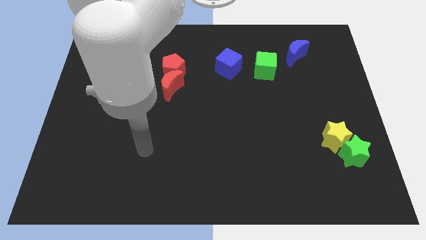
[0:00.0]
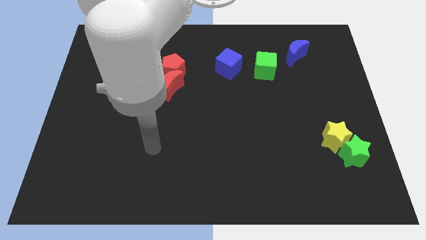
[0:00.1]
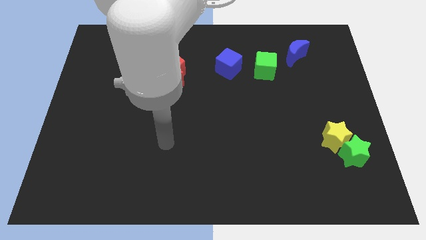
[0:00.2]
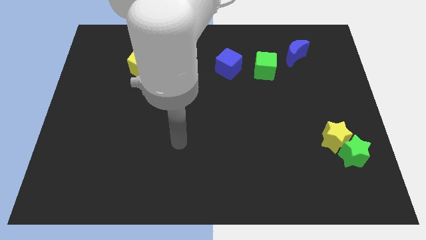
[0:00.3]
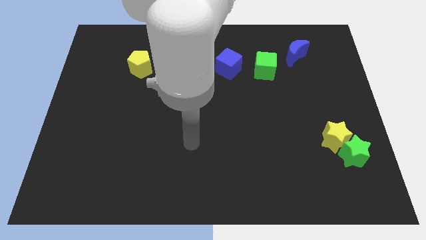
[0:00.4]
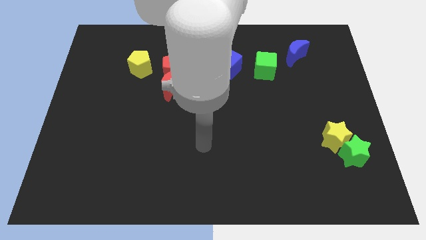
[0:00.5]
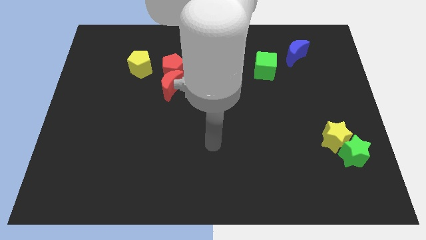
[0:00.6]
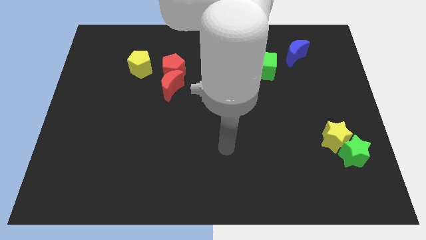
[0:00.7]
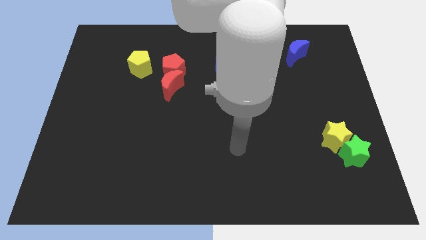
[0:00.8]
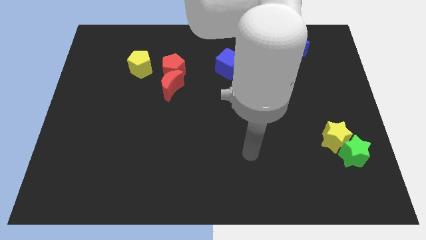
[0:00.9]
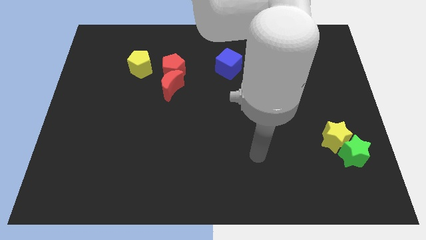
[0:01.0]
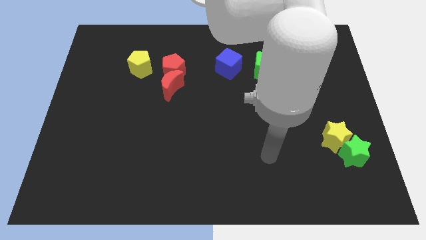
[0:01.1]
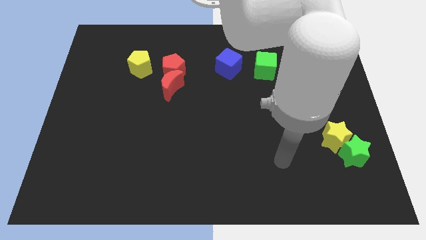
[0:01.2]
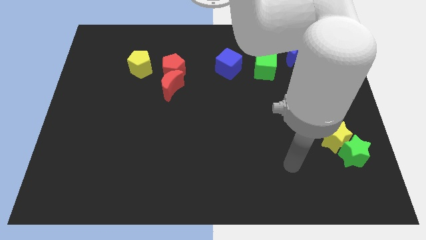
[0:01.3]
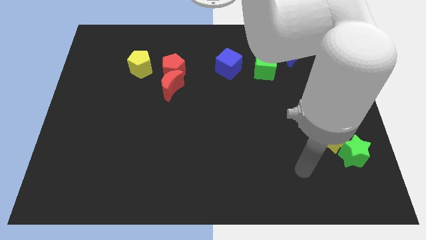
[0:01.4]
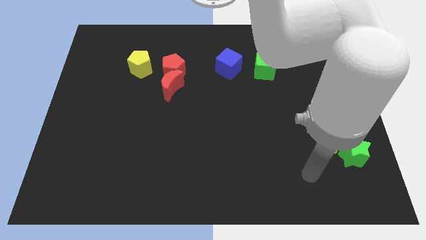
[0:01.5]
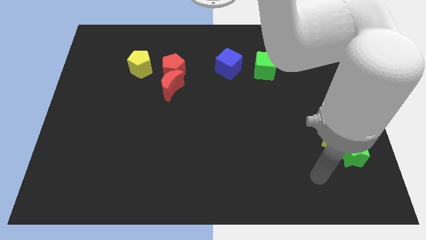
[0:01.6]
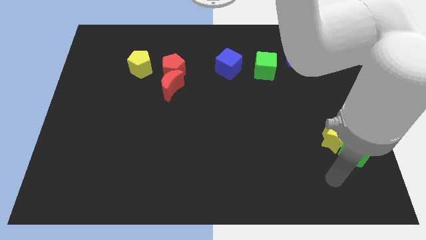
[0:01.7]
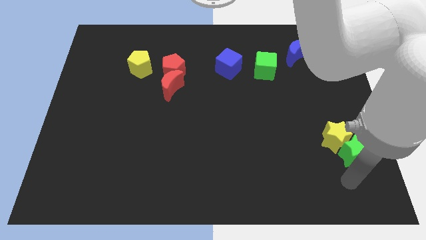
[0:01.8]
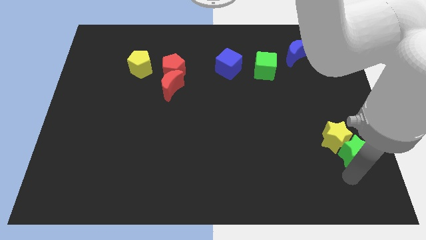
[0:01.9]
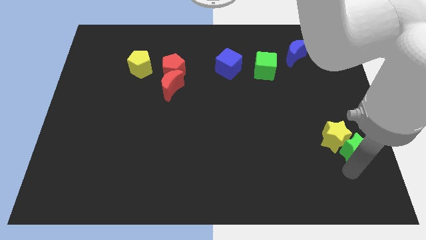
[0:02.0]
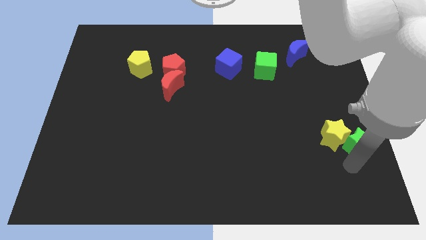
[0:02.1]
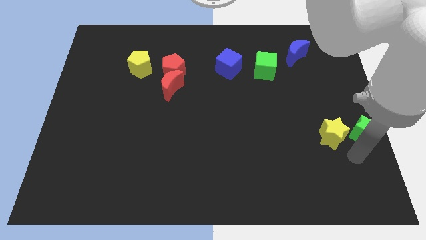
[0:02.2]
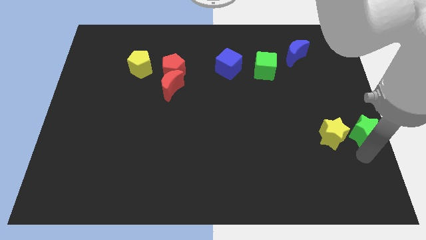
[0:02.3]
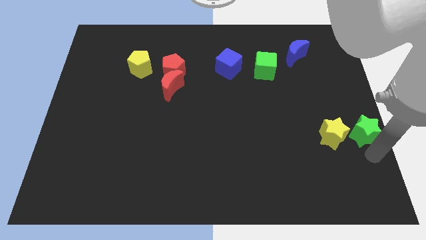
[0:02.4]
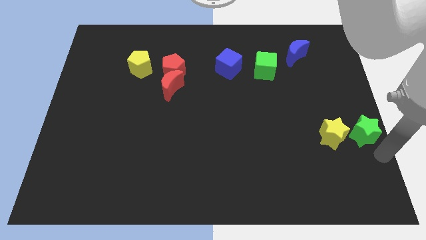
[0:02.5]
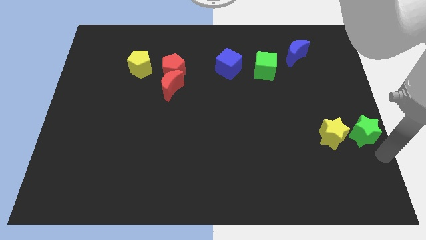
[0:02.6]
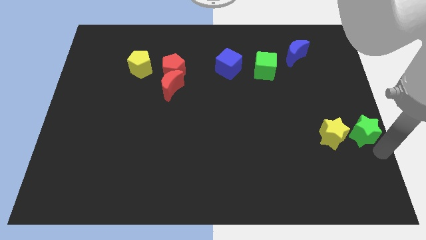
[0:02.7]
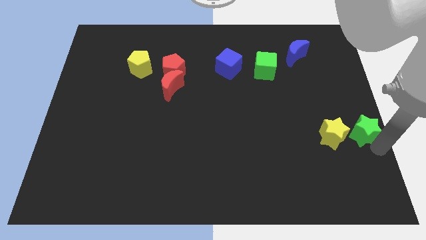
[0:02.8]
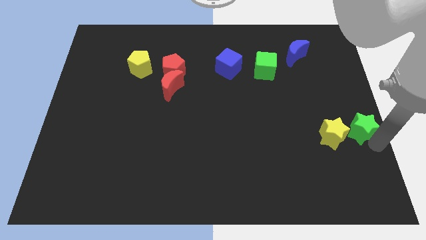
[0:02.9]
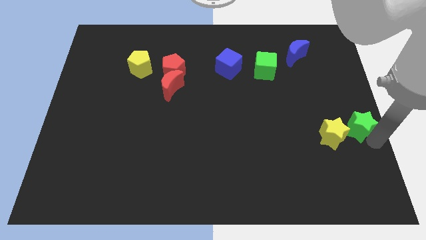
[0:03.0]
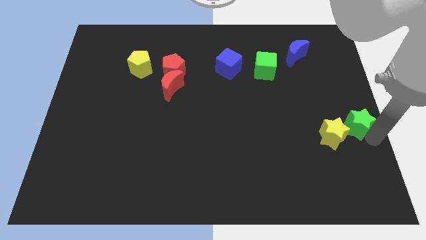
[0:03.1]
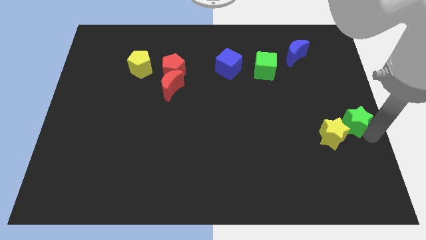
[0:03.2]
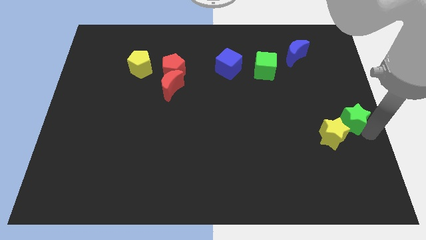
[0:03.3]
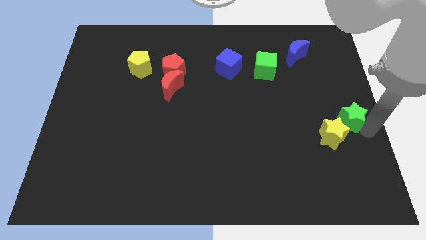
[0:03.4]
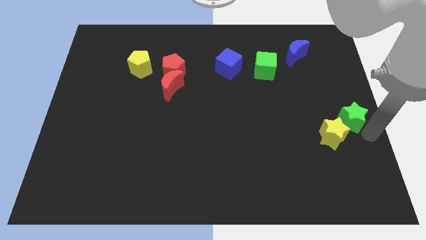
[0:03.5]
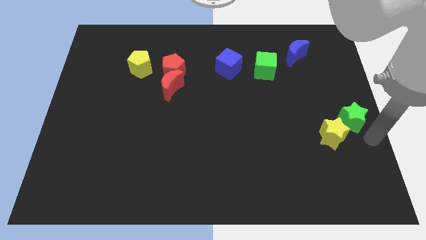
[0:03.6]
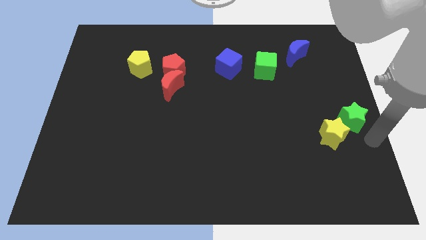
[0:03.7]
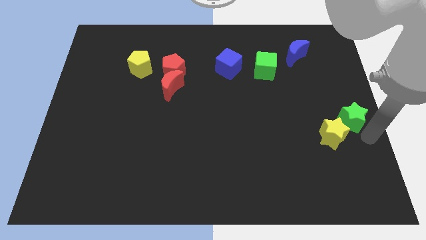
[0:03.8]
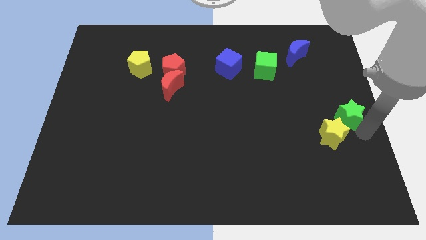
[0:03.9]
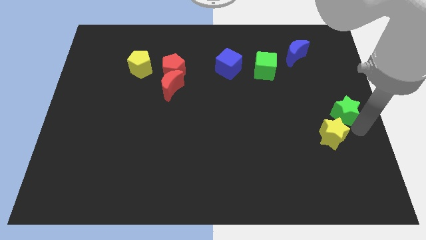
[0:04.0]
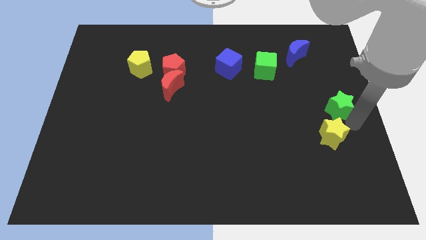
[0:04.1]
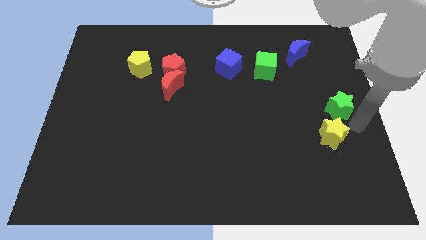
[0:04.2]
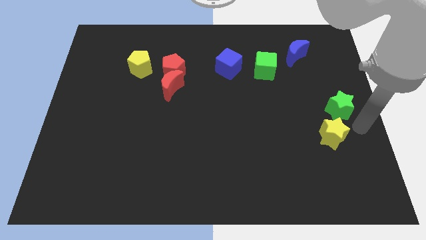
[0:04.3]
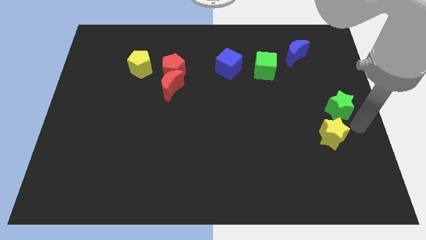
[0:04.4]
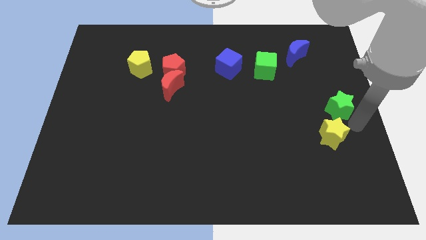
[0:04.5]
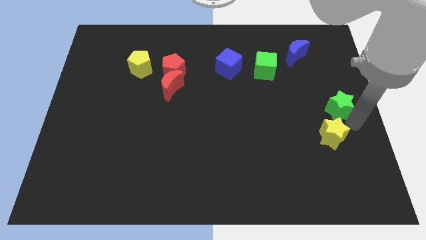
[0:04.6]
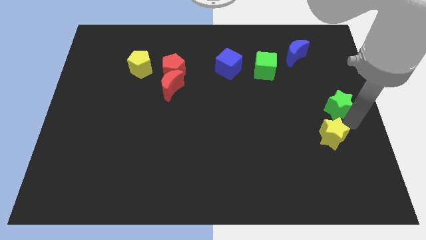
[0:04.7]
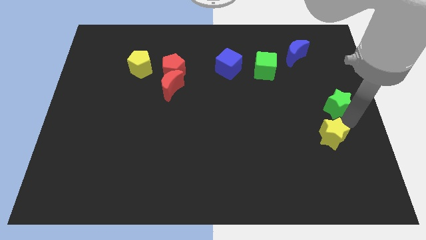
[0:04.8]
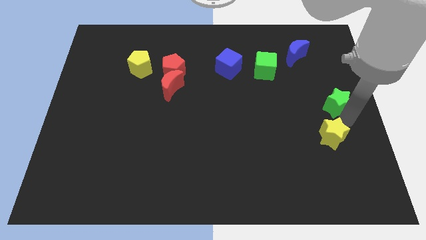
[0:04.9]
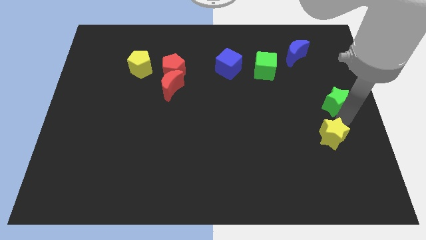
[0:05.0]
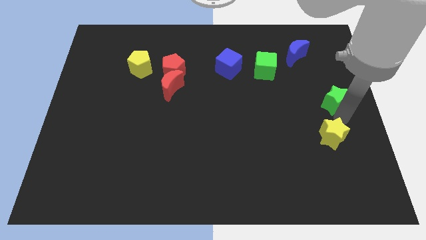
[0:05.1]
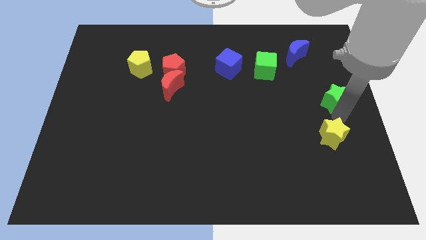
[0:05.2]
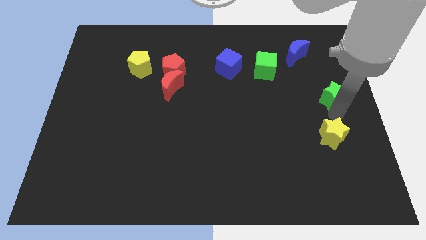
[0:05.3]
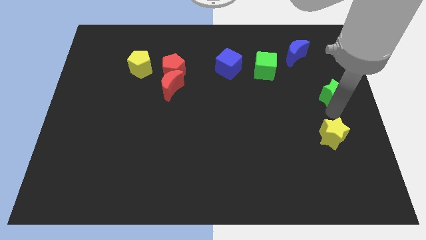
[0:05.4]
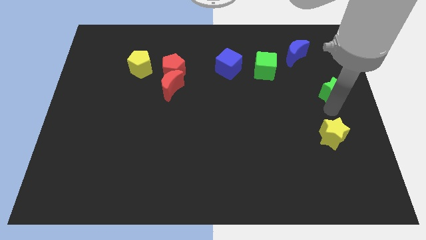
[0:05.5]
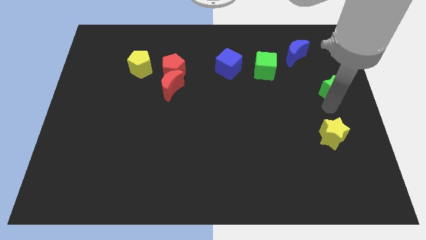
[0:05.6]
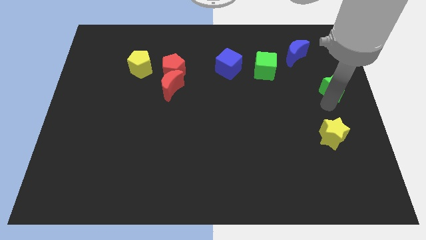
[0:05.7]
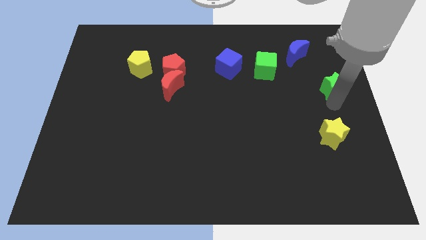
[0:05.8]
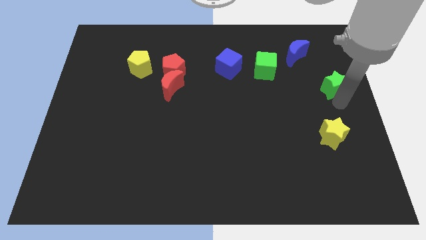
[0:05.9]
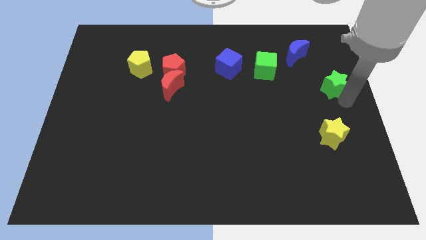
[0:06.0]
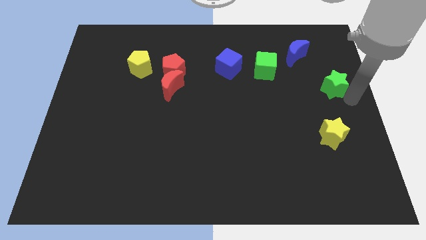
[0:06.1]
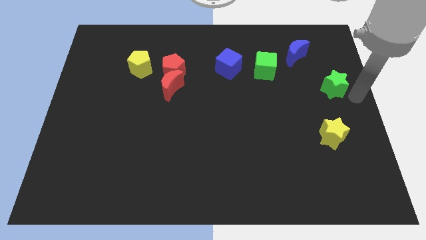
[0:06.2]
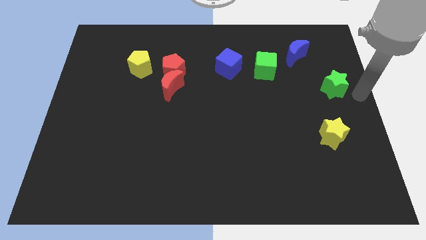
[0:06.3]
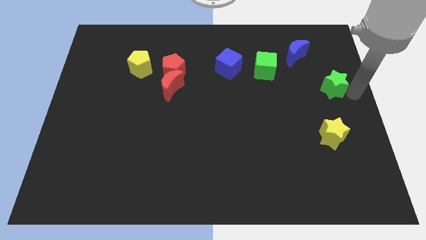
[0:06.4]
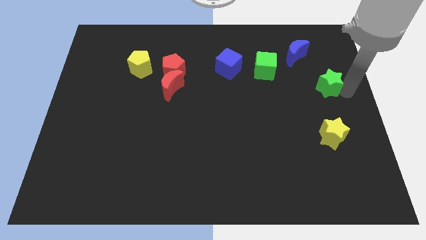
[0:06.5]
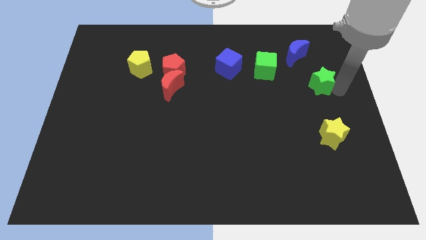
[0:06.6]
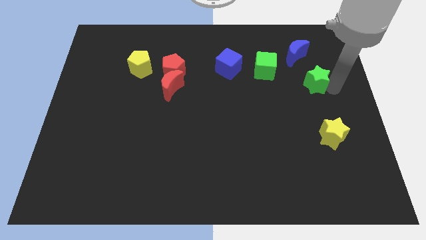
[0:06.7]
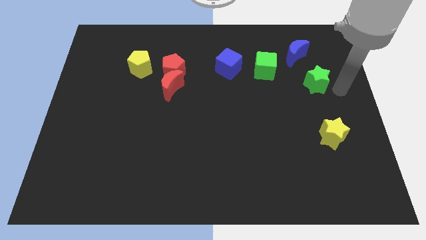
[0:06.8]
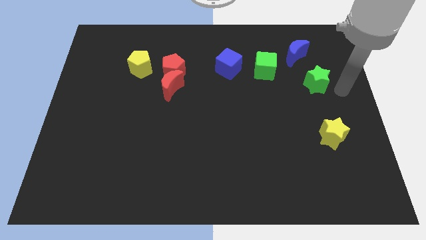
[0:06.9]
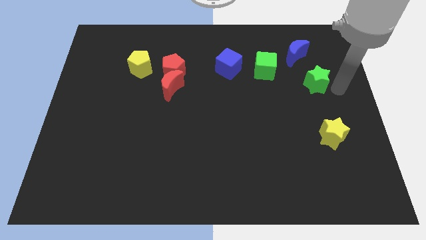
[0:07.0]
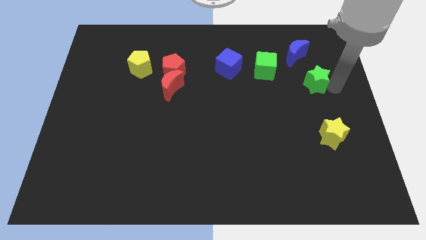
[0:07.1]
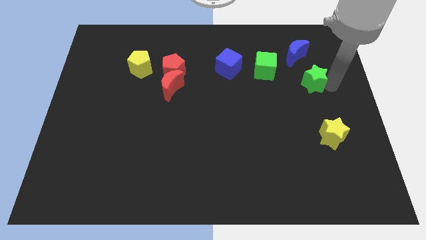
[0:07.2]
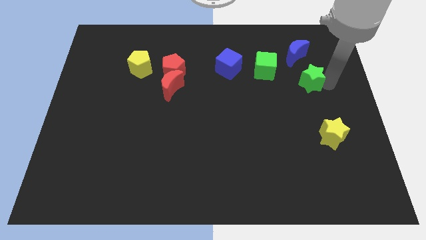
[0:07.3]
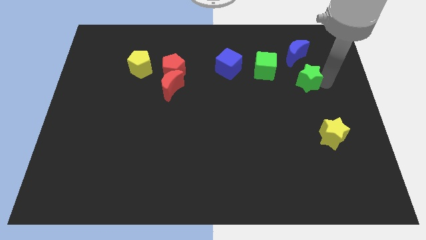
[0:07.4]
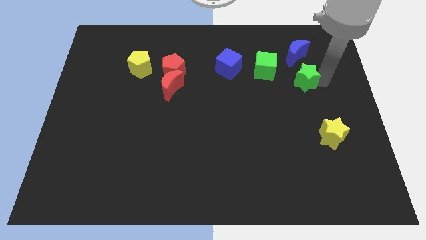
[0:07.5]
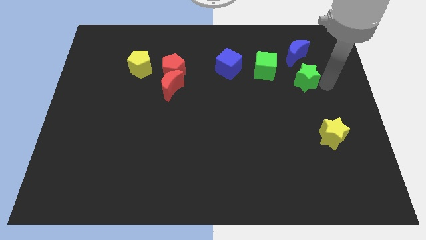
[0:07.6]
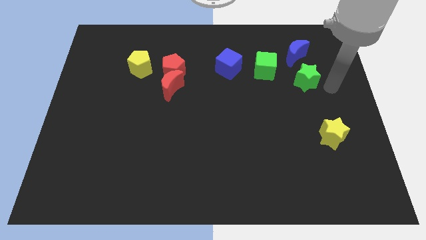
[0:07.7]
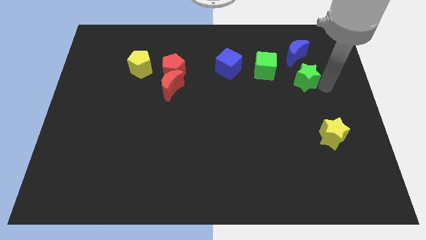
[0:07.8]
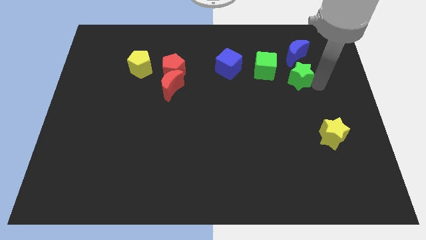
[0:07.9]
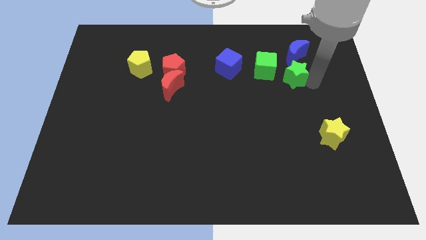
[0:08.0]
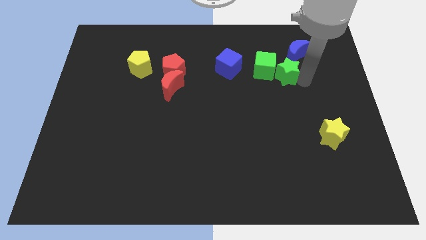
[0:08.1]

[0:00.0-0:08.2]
put the green star towards the green cube
